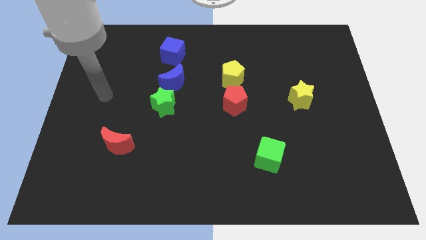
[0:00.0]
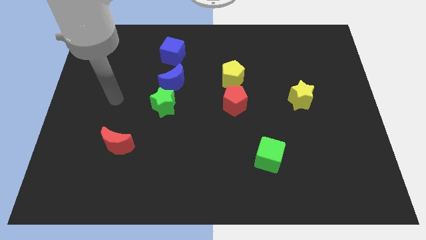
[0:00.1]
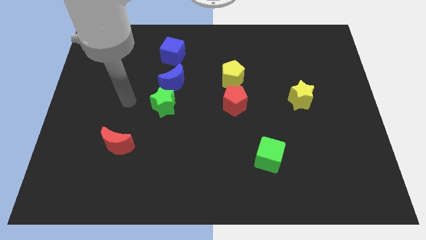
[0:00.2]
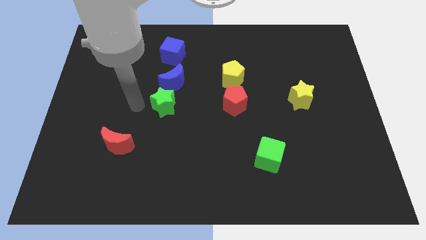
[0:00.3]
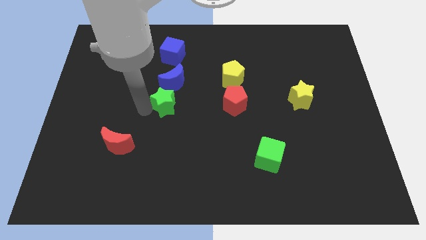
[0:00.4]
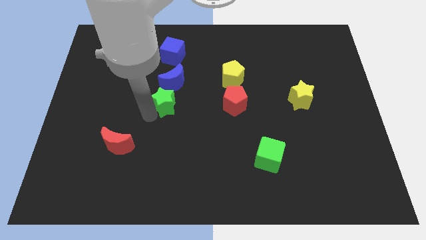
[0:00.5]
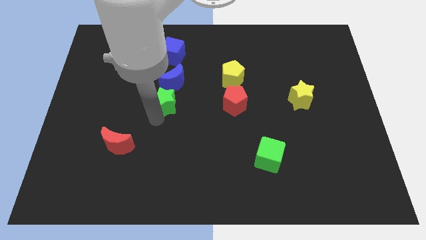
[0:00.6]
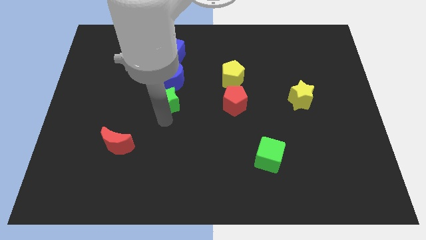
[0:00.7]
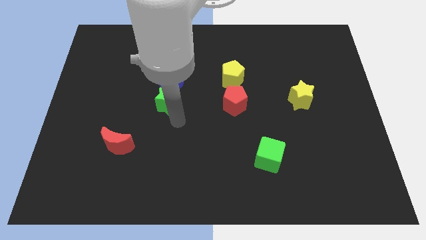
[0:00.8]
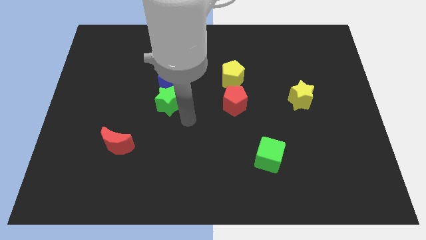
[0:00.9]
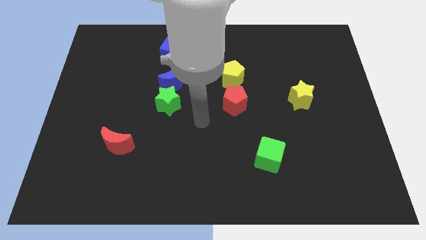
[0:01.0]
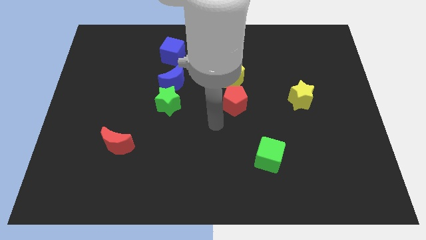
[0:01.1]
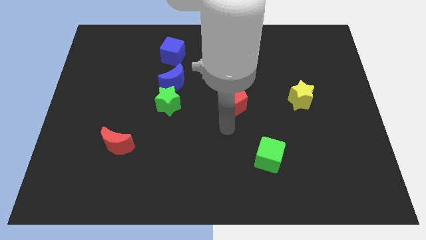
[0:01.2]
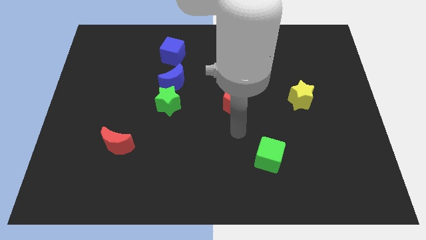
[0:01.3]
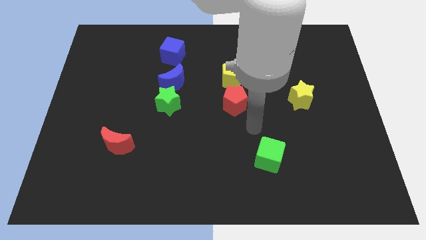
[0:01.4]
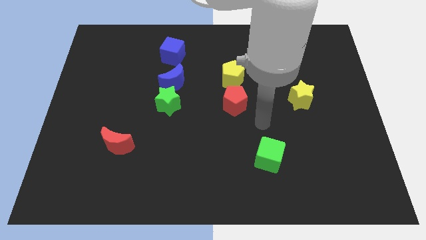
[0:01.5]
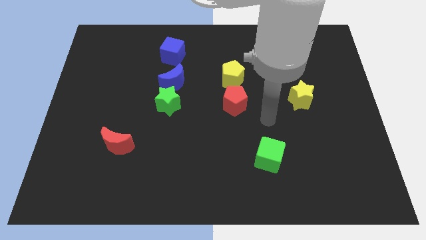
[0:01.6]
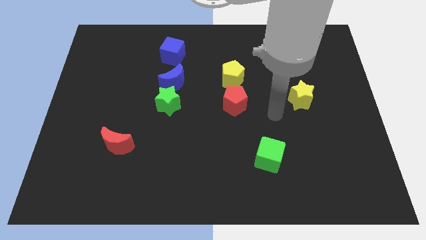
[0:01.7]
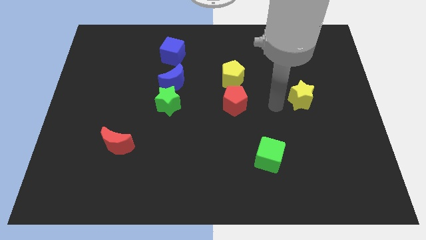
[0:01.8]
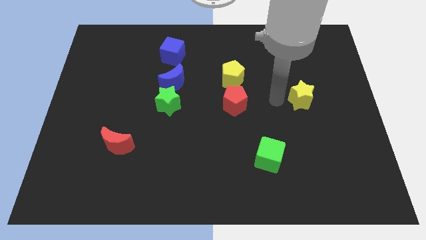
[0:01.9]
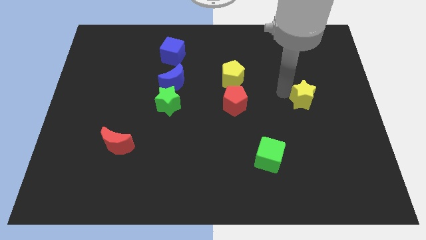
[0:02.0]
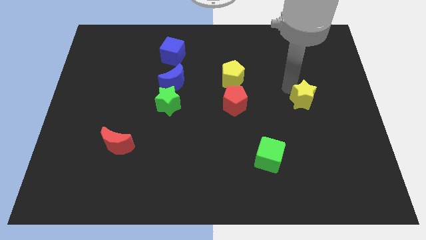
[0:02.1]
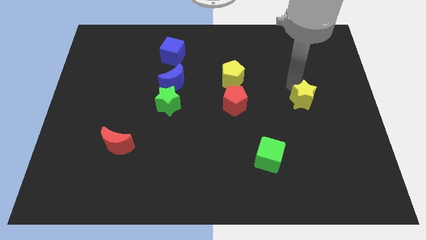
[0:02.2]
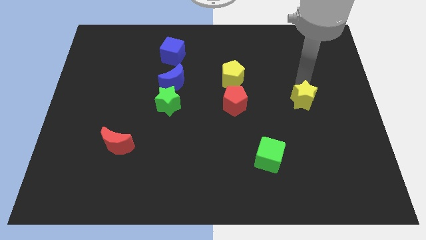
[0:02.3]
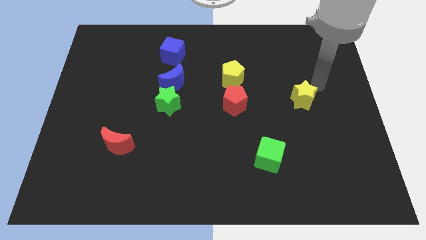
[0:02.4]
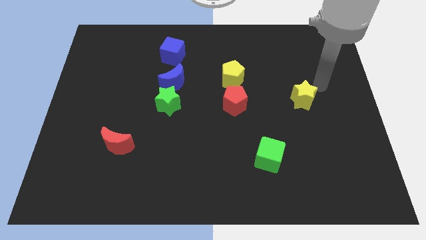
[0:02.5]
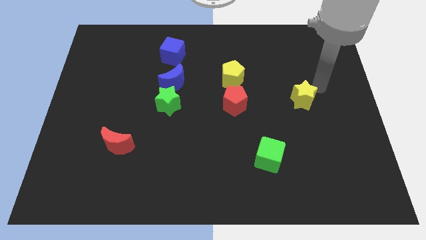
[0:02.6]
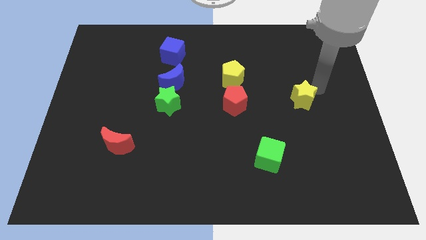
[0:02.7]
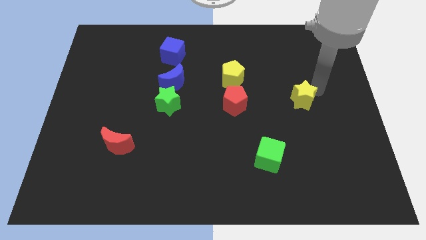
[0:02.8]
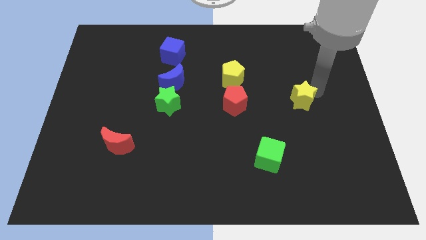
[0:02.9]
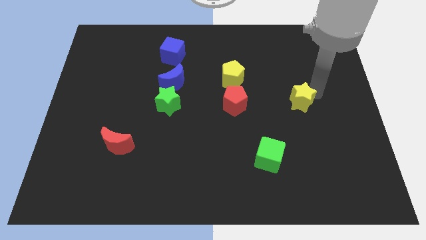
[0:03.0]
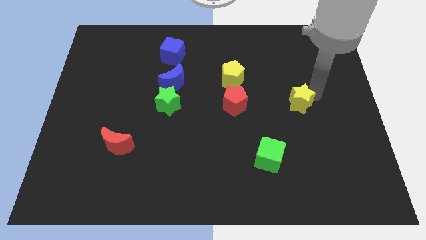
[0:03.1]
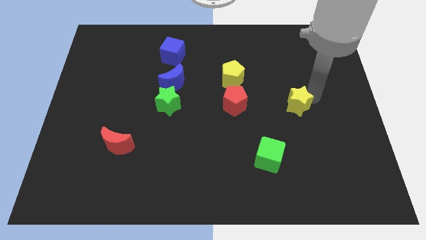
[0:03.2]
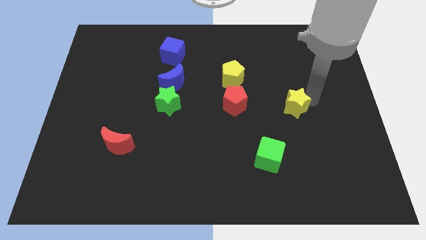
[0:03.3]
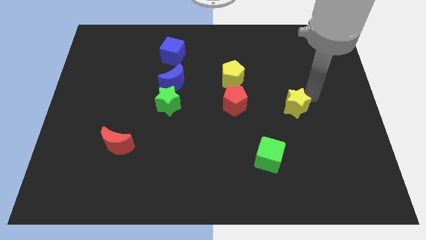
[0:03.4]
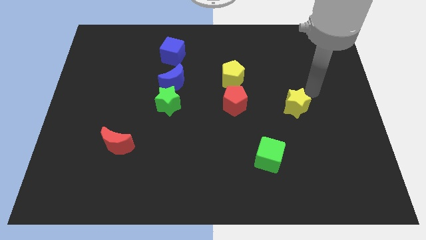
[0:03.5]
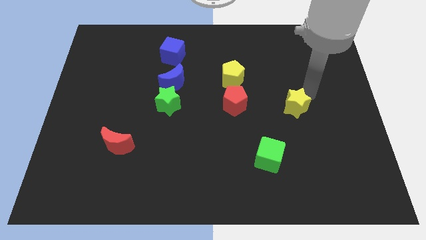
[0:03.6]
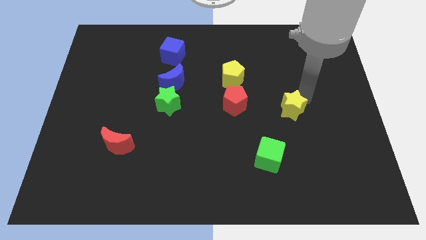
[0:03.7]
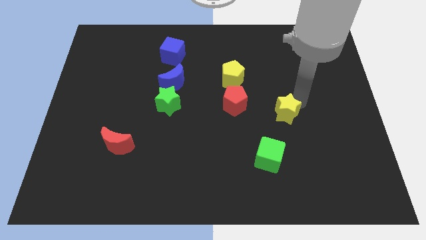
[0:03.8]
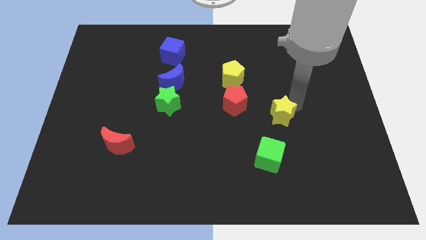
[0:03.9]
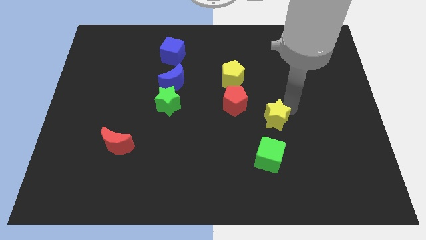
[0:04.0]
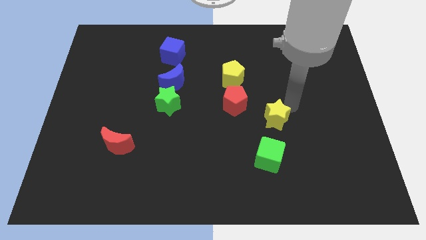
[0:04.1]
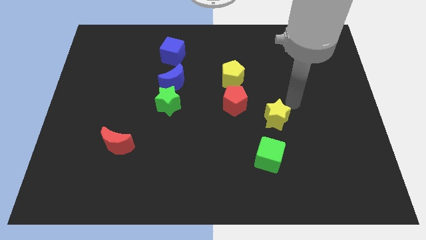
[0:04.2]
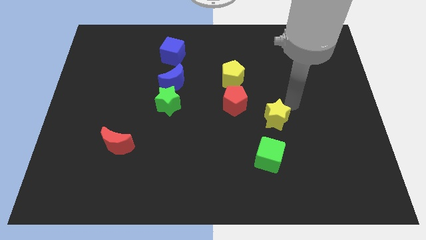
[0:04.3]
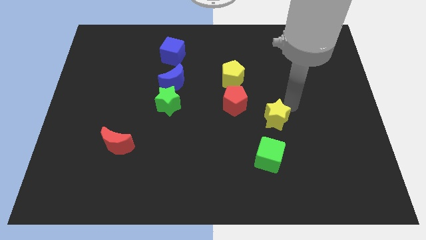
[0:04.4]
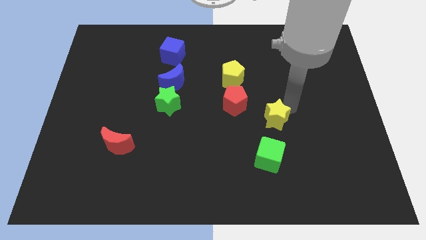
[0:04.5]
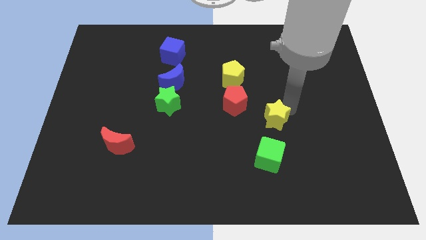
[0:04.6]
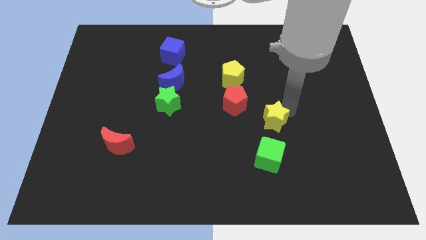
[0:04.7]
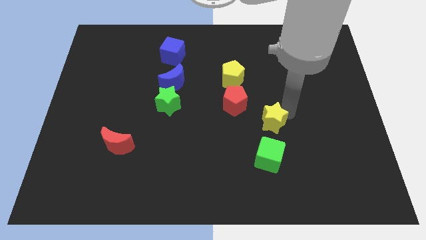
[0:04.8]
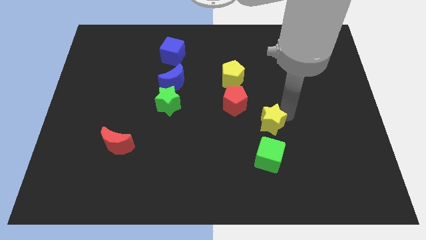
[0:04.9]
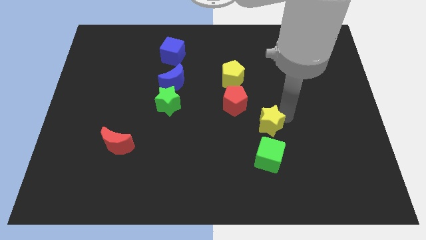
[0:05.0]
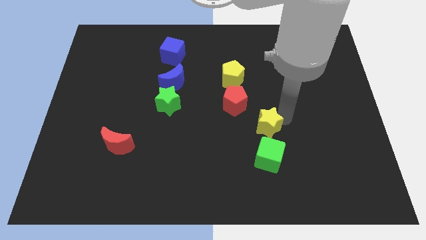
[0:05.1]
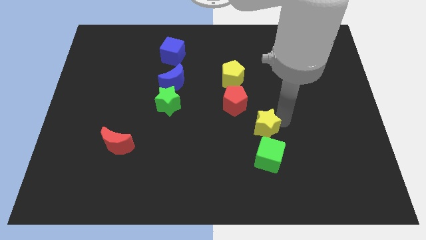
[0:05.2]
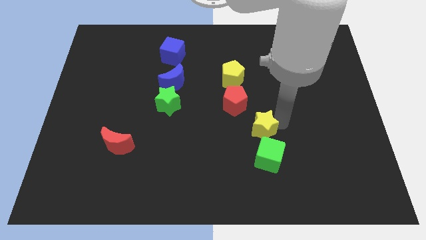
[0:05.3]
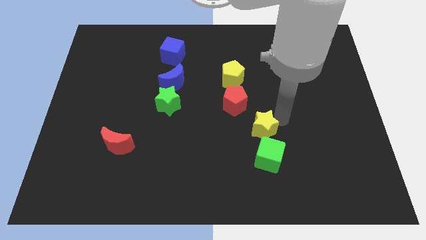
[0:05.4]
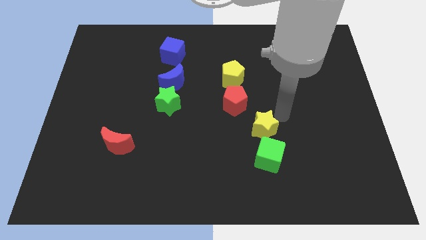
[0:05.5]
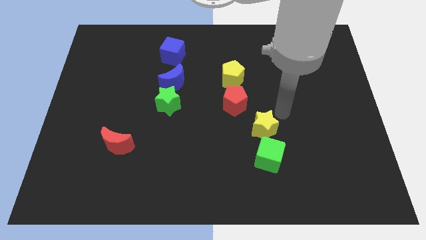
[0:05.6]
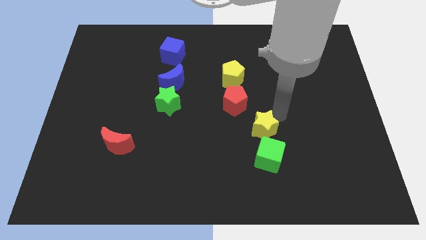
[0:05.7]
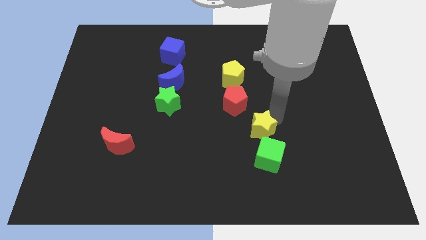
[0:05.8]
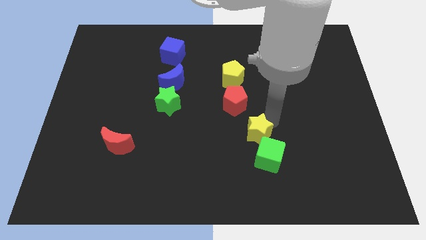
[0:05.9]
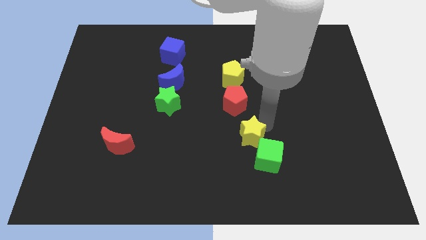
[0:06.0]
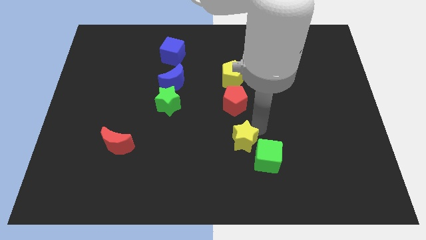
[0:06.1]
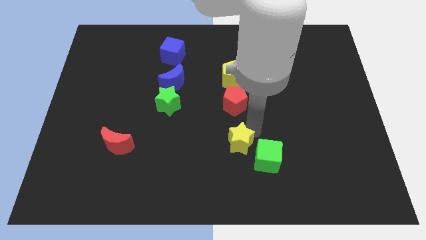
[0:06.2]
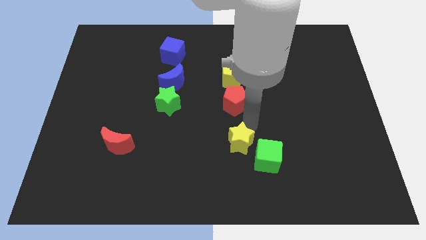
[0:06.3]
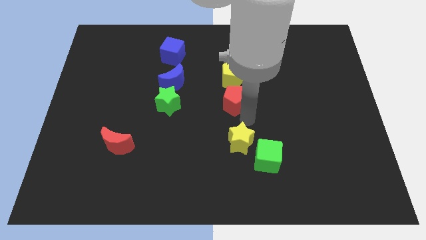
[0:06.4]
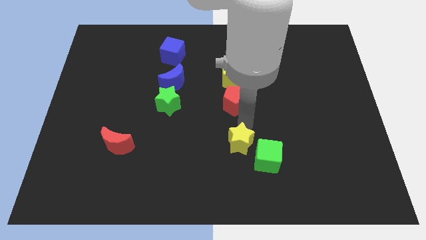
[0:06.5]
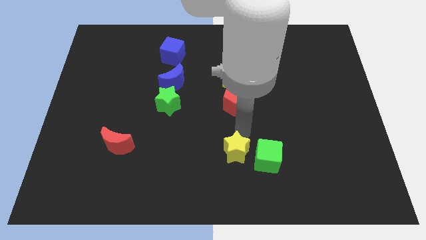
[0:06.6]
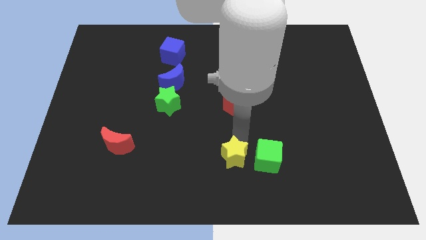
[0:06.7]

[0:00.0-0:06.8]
put the yellow star to the bottom
